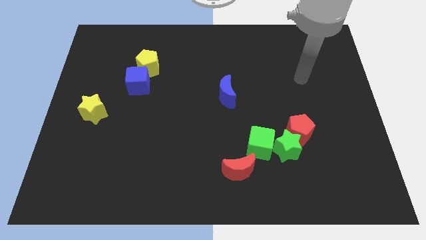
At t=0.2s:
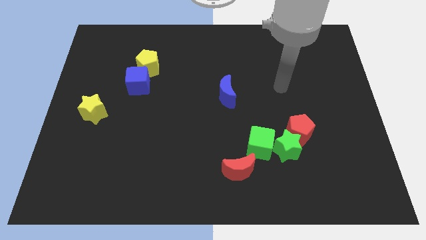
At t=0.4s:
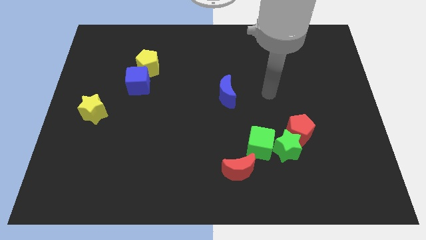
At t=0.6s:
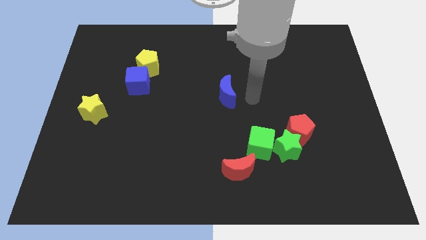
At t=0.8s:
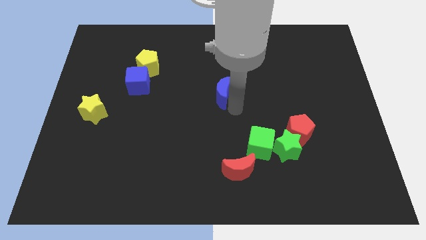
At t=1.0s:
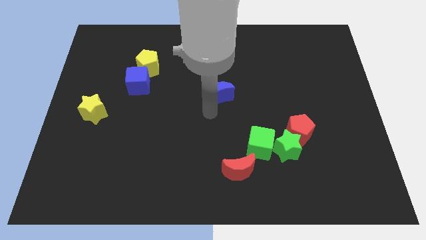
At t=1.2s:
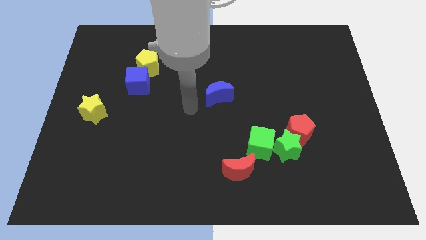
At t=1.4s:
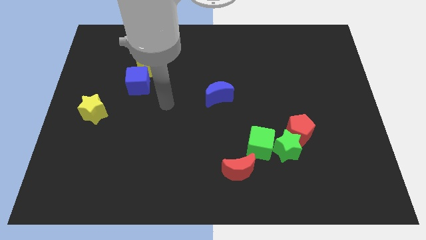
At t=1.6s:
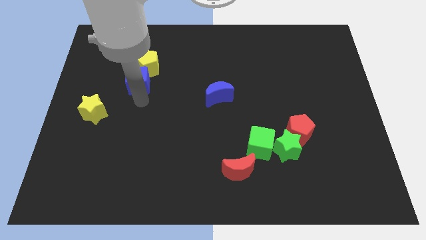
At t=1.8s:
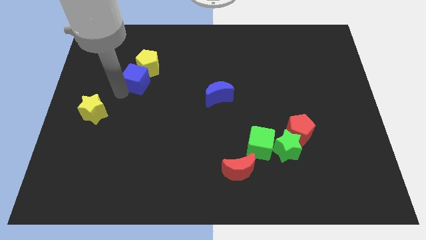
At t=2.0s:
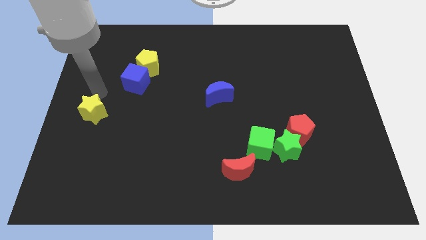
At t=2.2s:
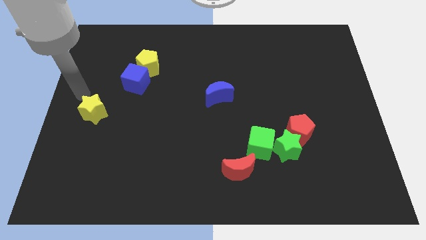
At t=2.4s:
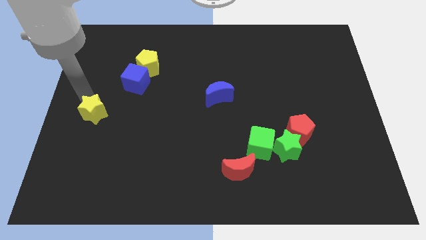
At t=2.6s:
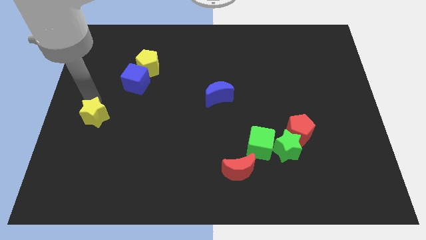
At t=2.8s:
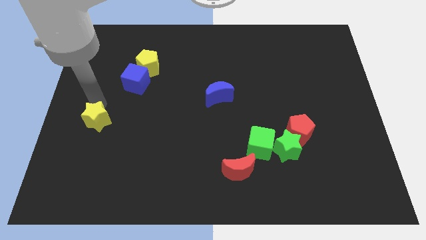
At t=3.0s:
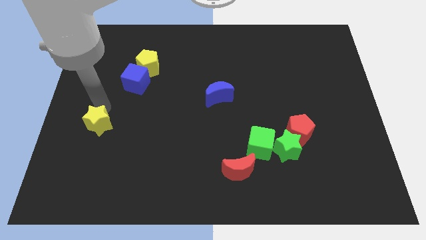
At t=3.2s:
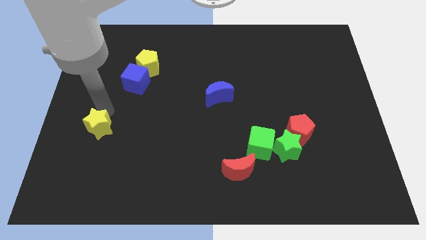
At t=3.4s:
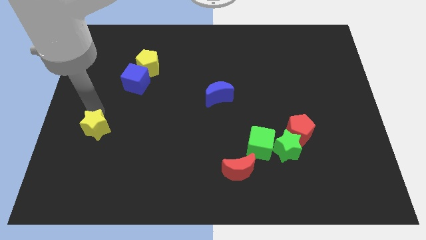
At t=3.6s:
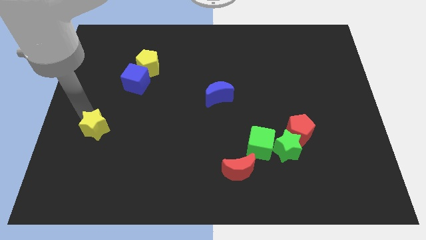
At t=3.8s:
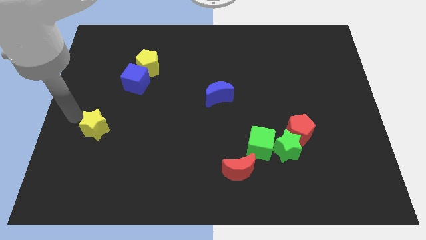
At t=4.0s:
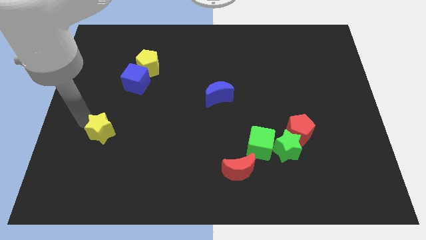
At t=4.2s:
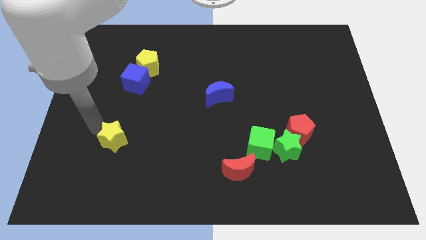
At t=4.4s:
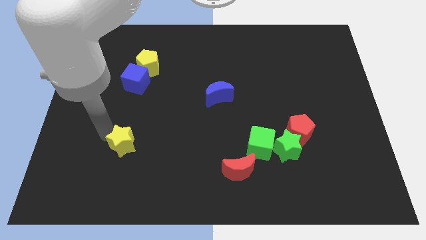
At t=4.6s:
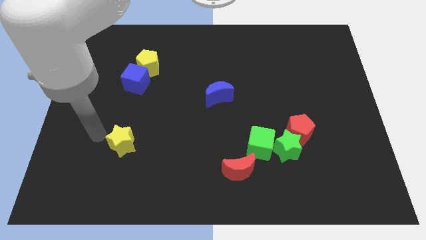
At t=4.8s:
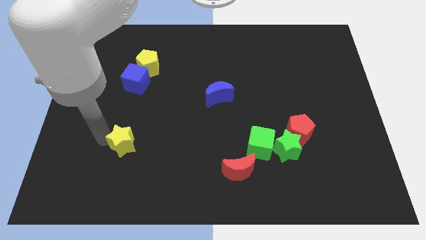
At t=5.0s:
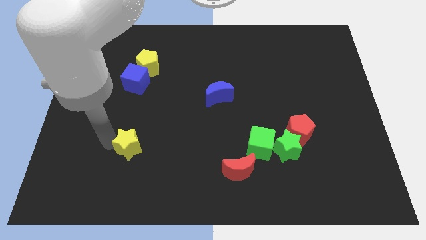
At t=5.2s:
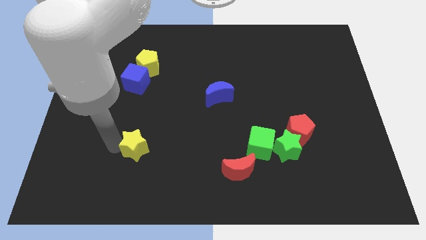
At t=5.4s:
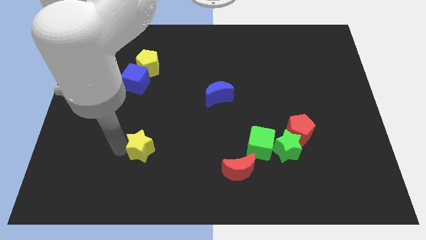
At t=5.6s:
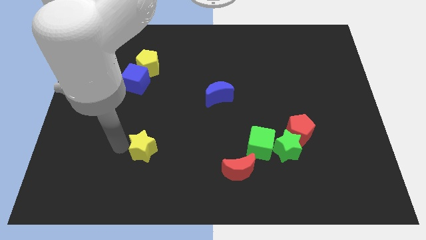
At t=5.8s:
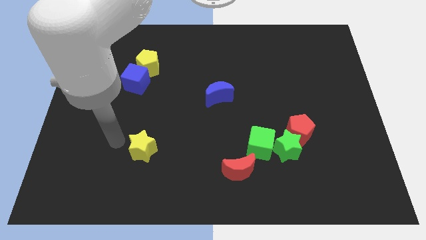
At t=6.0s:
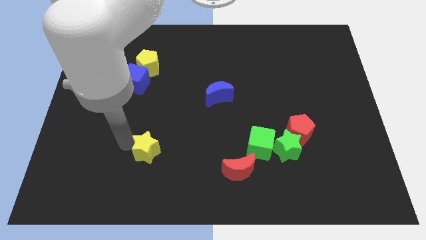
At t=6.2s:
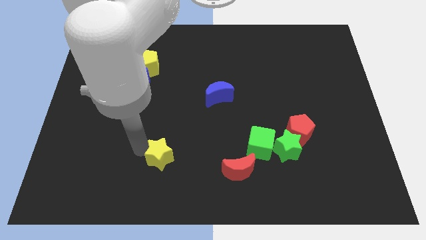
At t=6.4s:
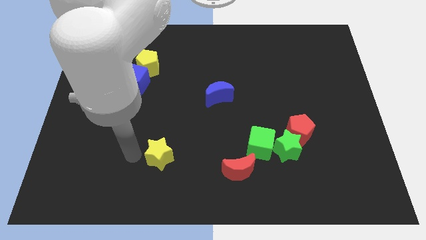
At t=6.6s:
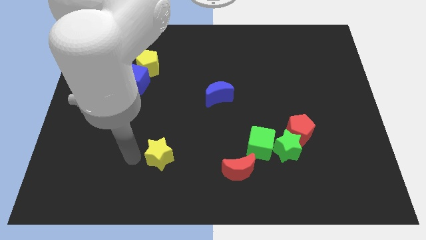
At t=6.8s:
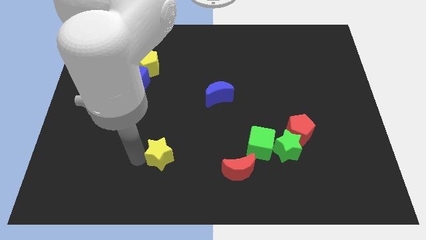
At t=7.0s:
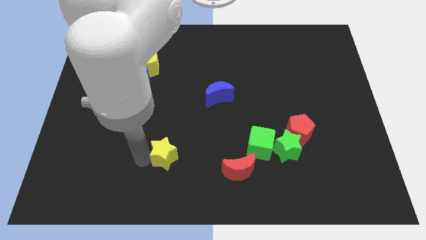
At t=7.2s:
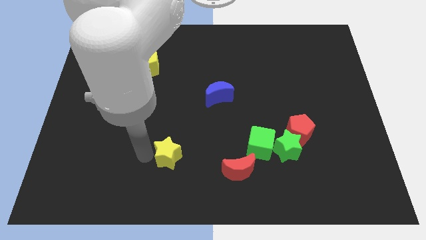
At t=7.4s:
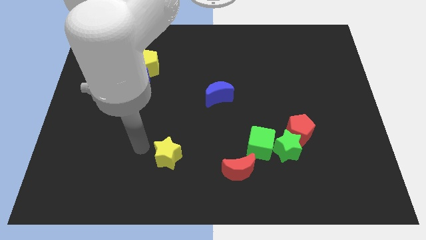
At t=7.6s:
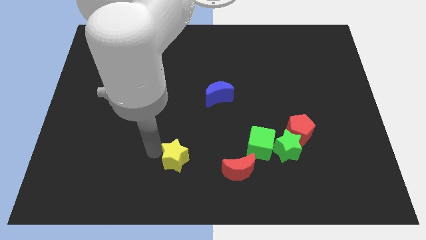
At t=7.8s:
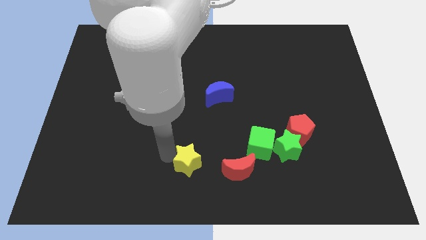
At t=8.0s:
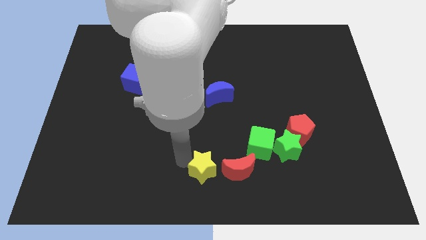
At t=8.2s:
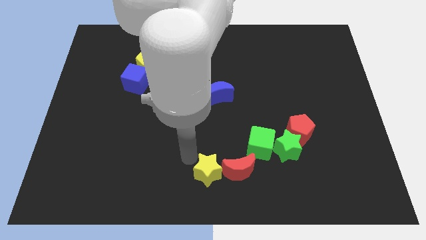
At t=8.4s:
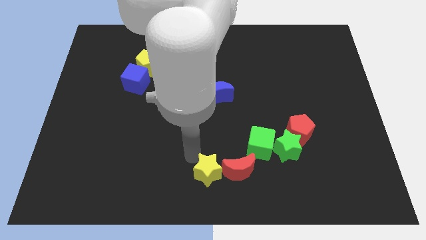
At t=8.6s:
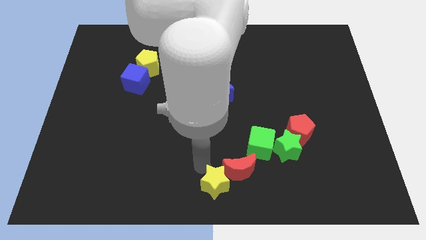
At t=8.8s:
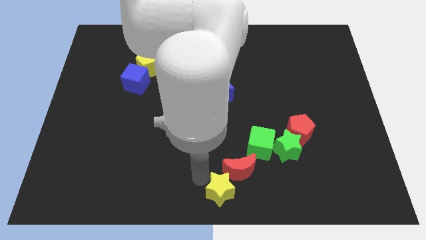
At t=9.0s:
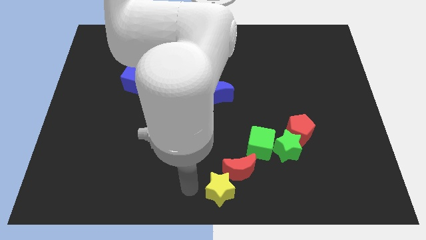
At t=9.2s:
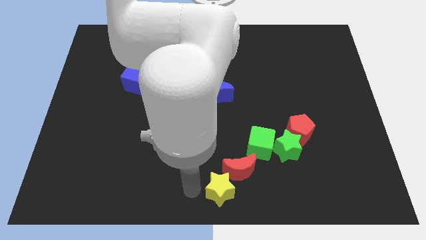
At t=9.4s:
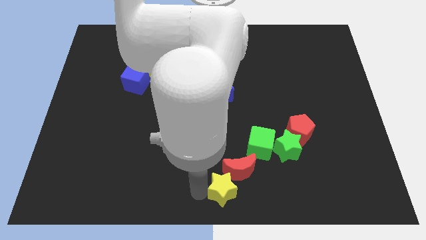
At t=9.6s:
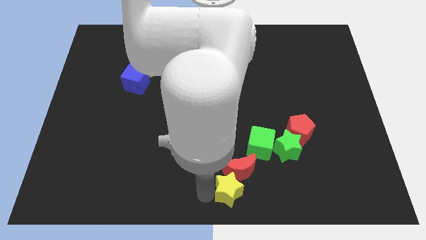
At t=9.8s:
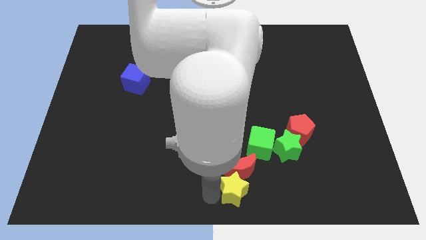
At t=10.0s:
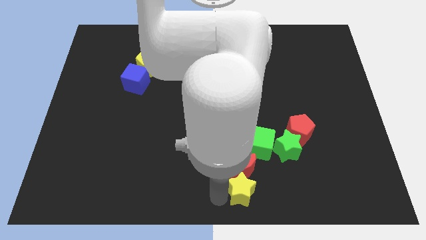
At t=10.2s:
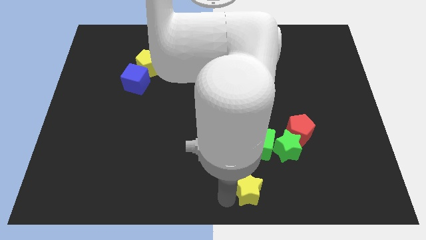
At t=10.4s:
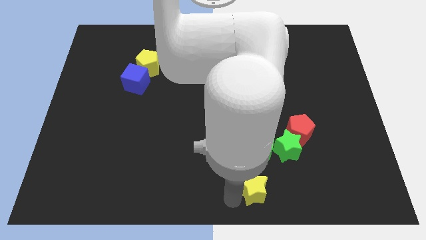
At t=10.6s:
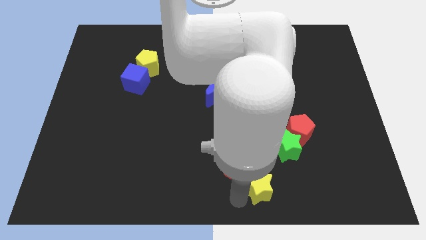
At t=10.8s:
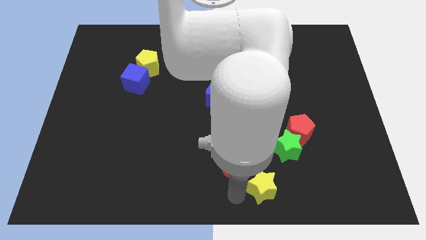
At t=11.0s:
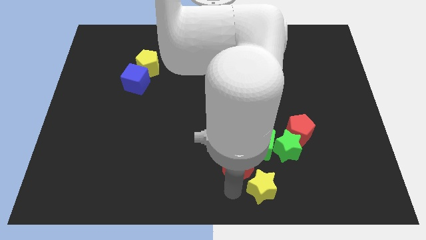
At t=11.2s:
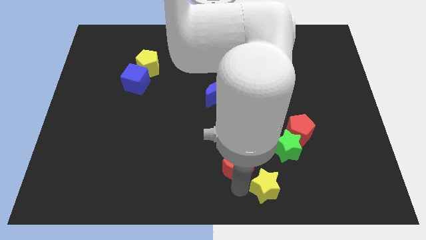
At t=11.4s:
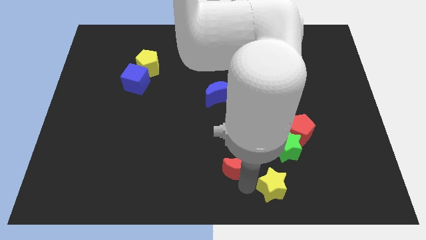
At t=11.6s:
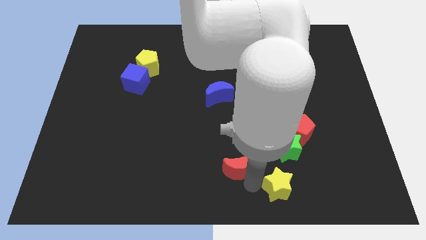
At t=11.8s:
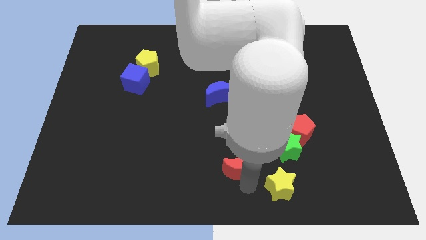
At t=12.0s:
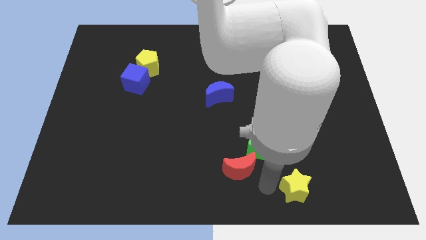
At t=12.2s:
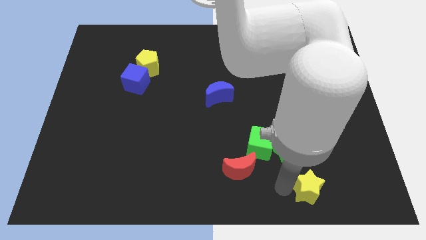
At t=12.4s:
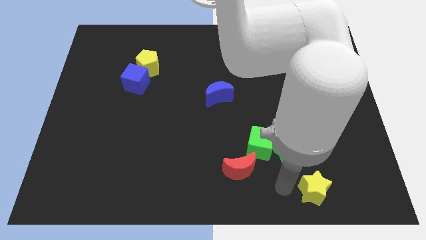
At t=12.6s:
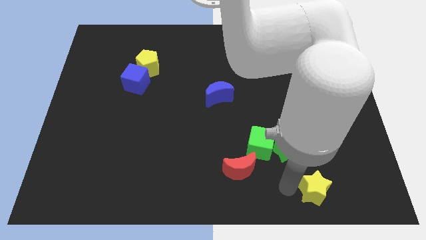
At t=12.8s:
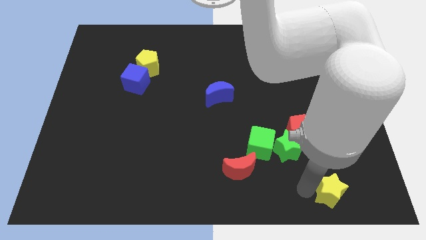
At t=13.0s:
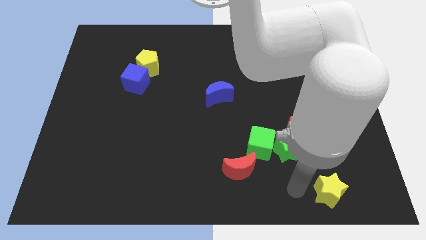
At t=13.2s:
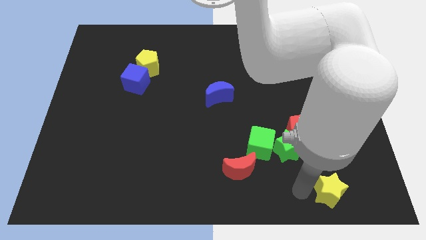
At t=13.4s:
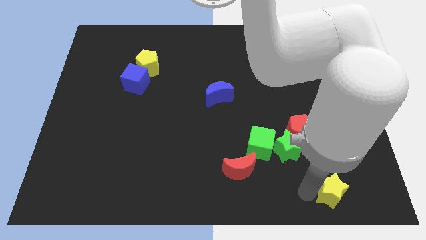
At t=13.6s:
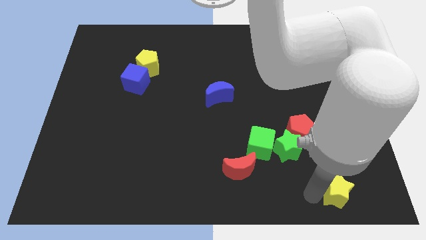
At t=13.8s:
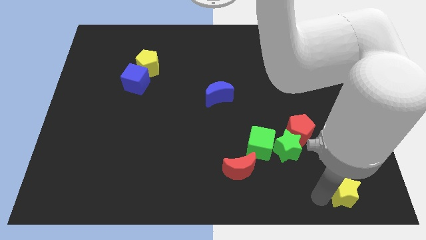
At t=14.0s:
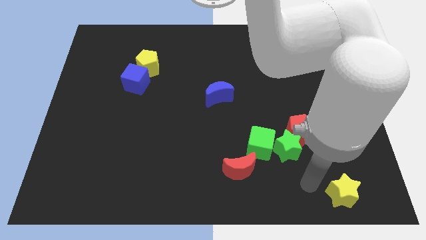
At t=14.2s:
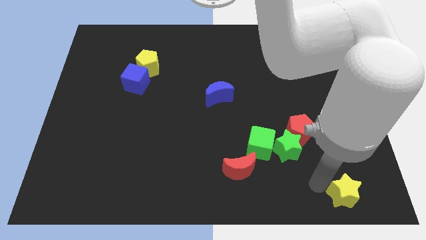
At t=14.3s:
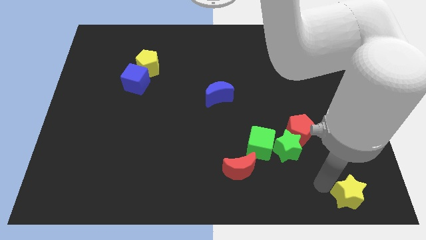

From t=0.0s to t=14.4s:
push the yellow star to the bottom right corner
